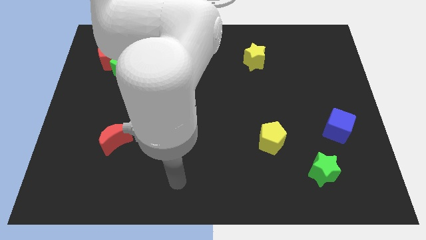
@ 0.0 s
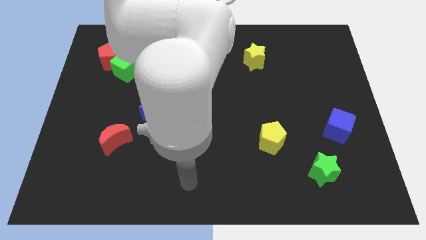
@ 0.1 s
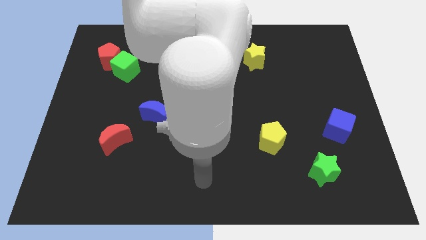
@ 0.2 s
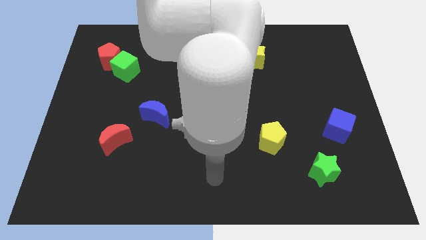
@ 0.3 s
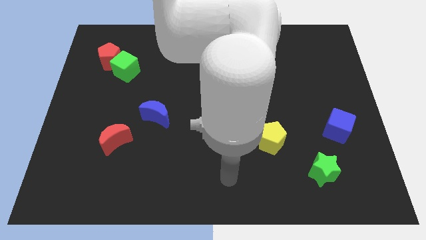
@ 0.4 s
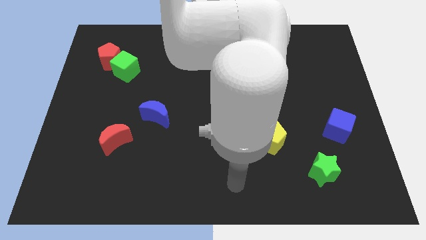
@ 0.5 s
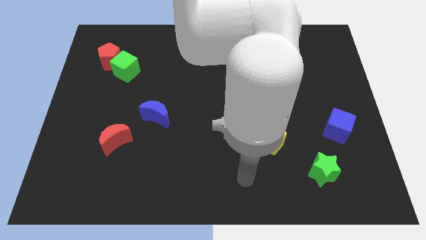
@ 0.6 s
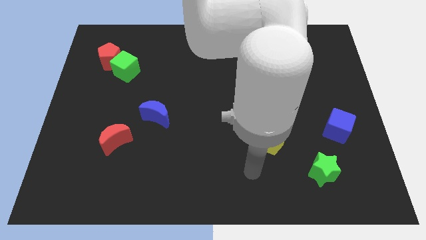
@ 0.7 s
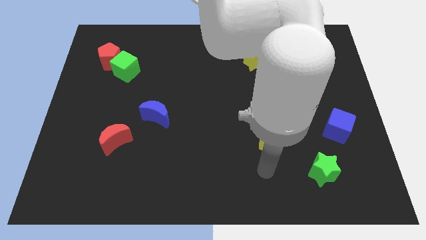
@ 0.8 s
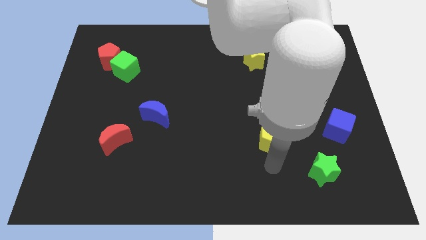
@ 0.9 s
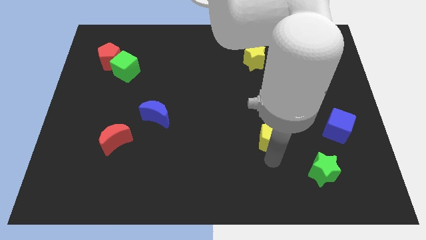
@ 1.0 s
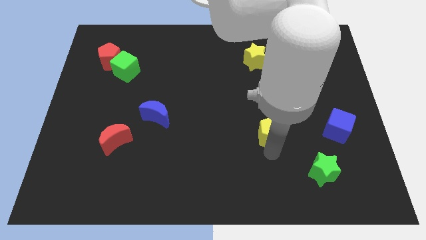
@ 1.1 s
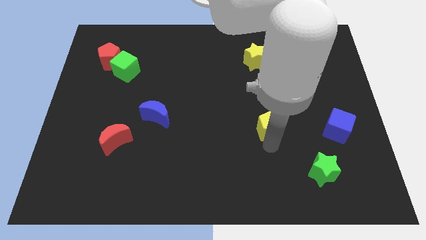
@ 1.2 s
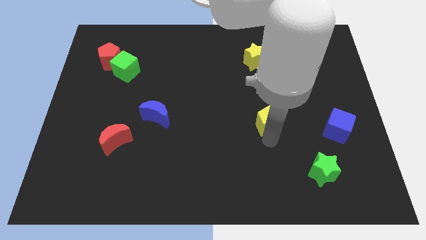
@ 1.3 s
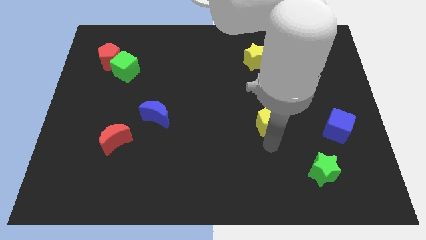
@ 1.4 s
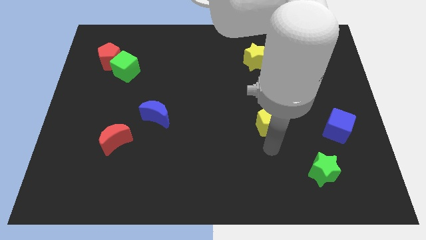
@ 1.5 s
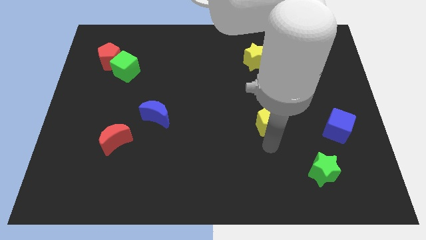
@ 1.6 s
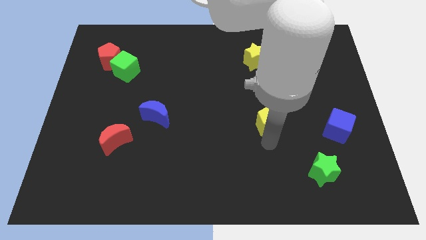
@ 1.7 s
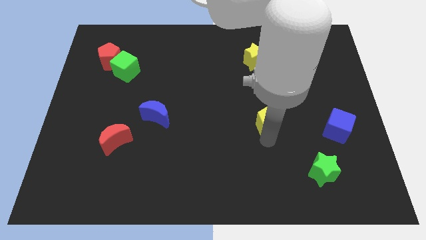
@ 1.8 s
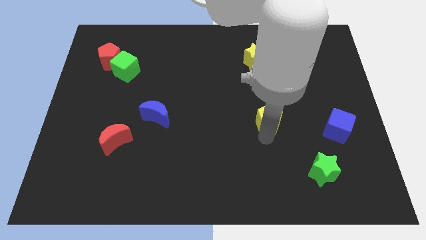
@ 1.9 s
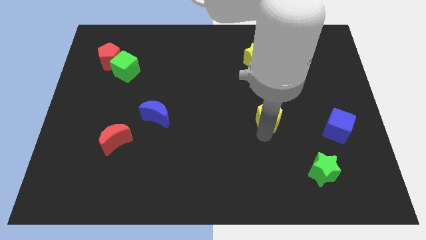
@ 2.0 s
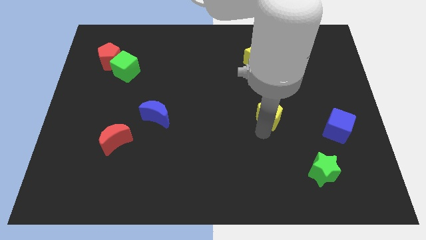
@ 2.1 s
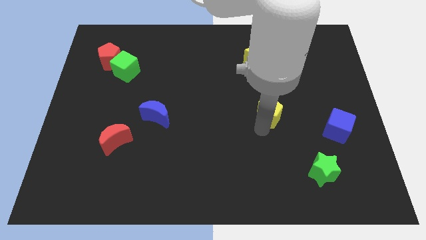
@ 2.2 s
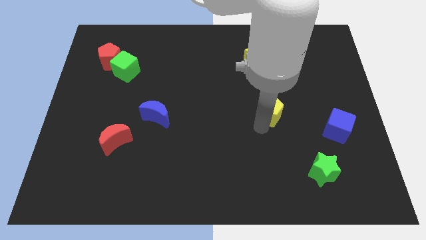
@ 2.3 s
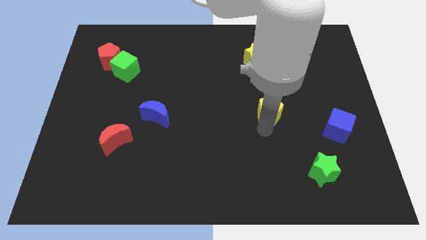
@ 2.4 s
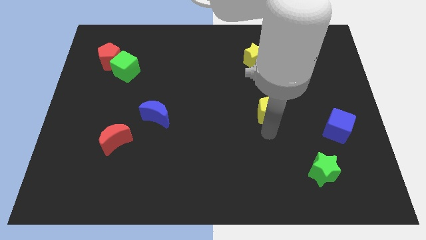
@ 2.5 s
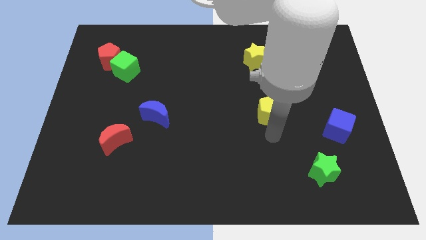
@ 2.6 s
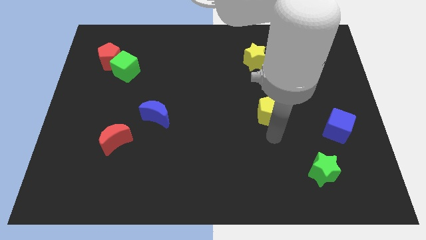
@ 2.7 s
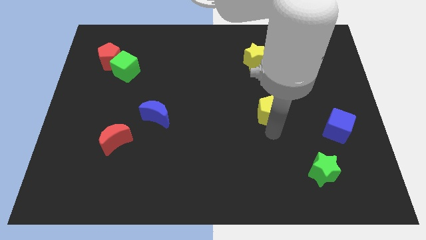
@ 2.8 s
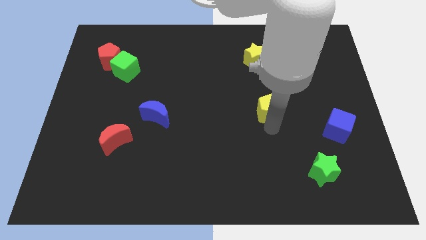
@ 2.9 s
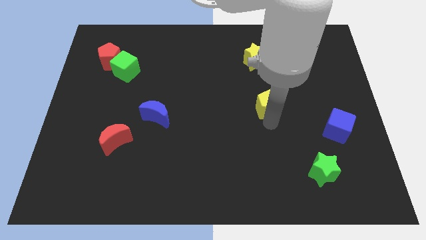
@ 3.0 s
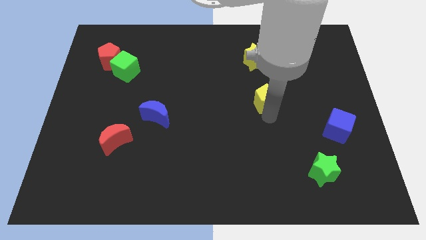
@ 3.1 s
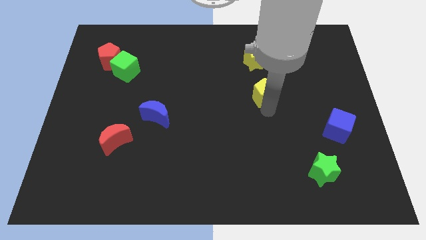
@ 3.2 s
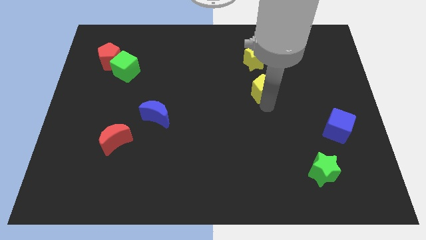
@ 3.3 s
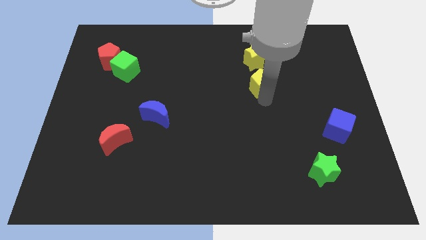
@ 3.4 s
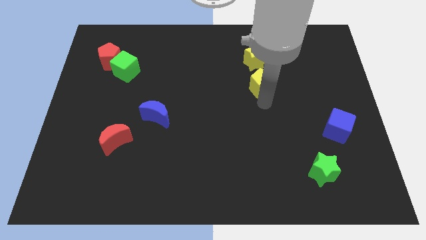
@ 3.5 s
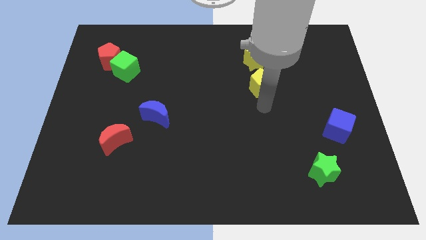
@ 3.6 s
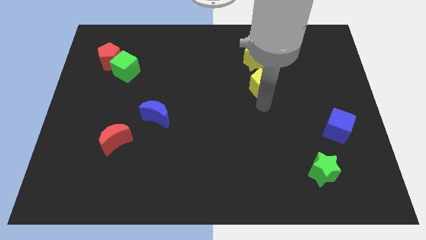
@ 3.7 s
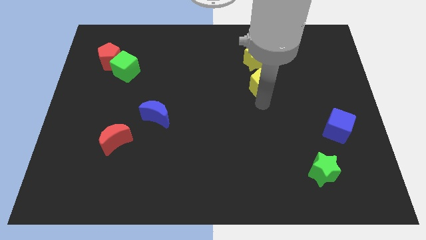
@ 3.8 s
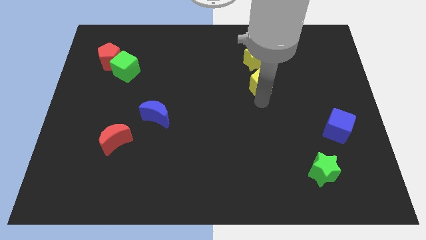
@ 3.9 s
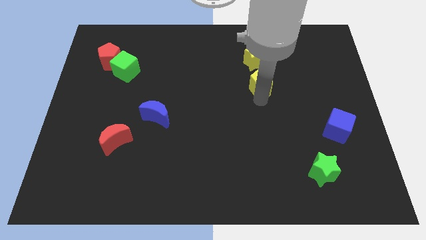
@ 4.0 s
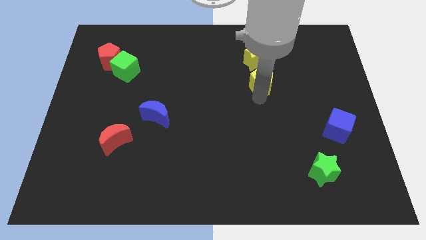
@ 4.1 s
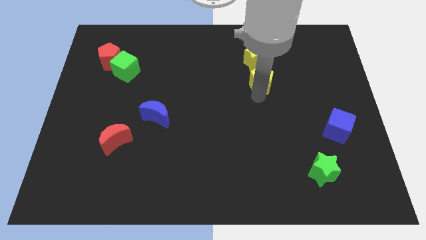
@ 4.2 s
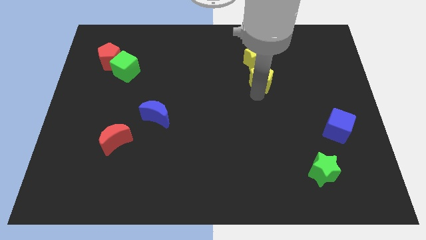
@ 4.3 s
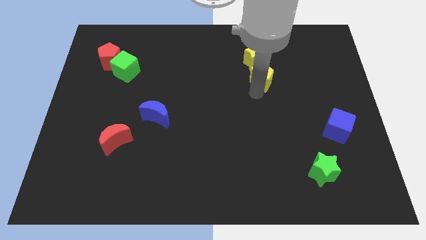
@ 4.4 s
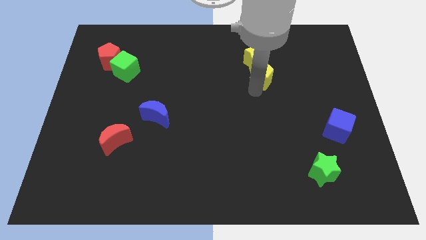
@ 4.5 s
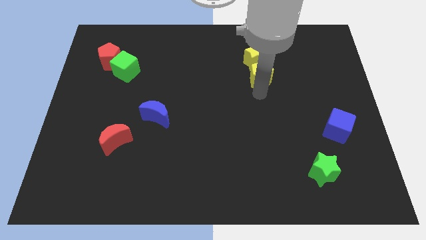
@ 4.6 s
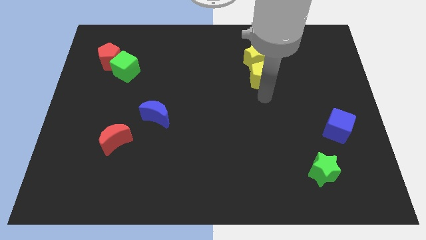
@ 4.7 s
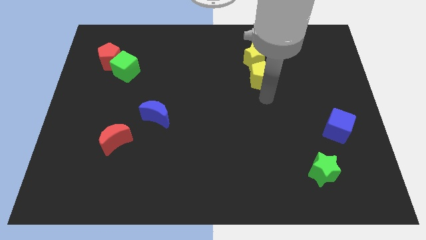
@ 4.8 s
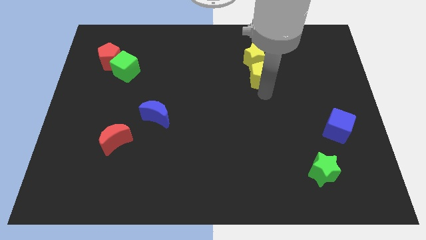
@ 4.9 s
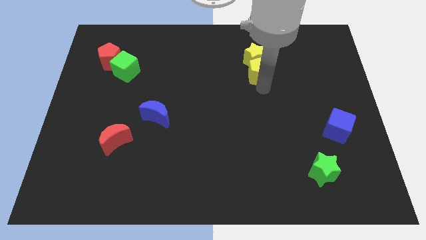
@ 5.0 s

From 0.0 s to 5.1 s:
slide the yellow pentagon towards the yellow star

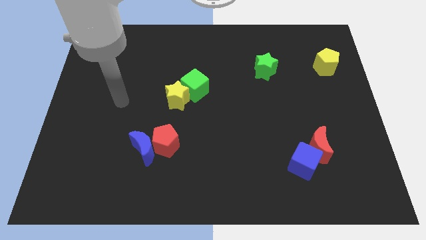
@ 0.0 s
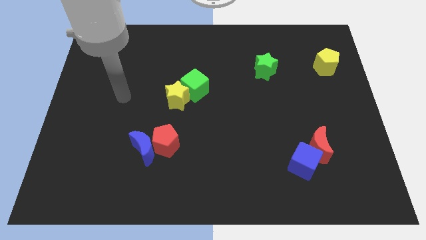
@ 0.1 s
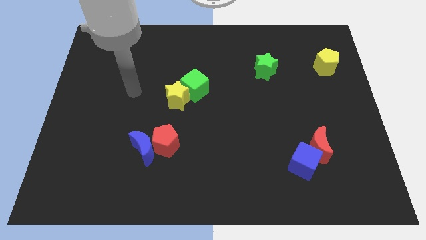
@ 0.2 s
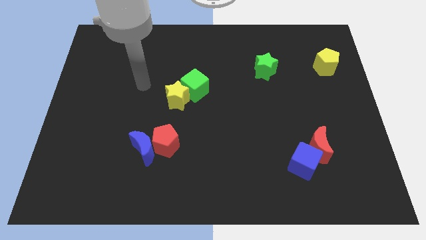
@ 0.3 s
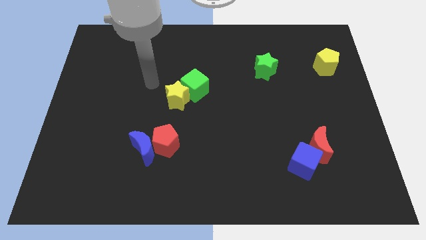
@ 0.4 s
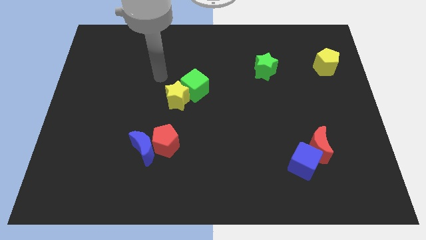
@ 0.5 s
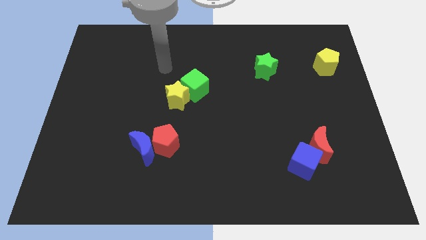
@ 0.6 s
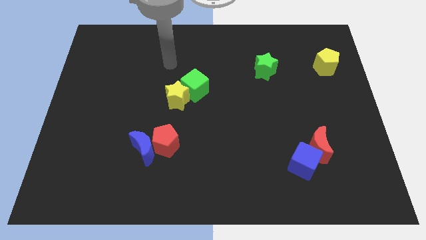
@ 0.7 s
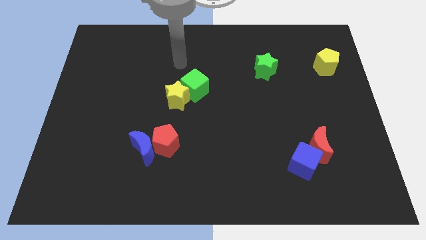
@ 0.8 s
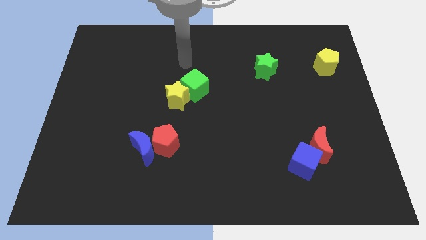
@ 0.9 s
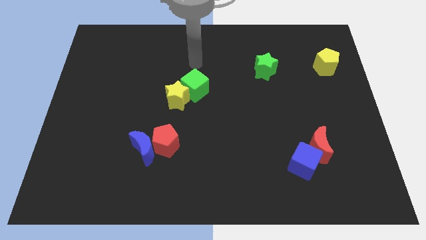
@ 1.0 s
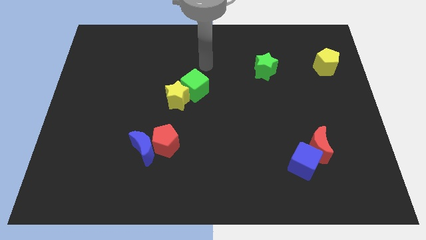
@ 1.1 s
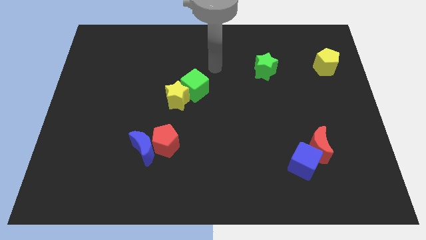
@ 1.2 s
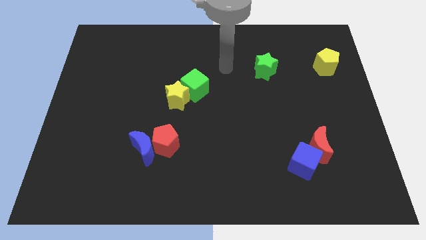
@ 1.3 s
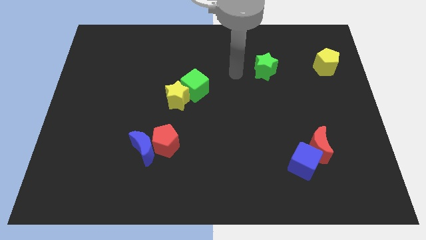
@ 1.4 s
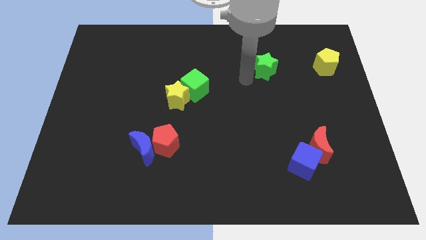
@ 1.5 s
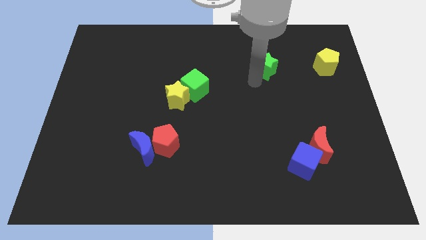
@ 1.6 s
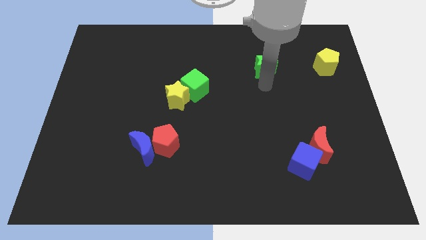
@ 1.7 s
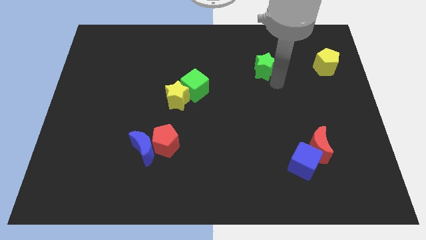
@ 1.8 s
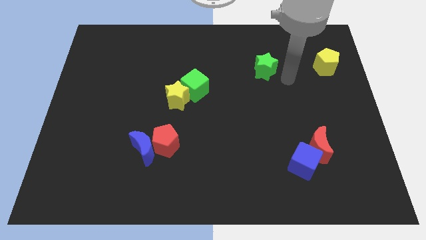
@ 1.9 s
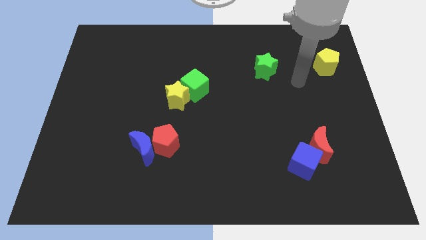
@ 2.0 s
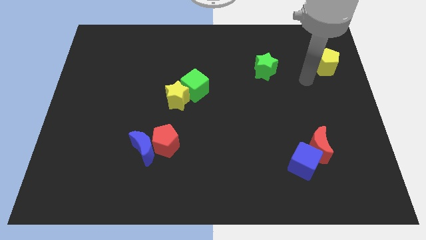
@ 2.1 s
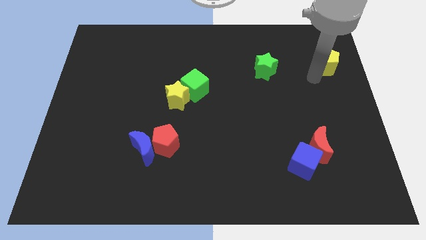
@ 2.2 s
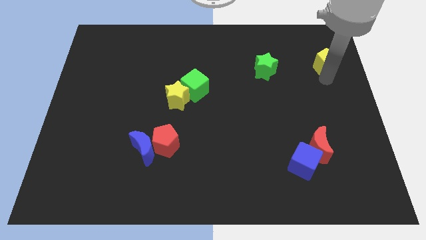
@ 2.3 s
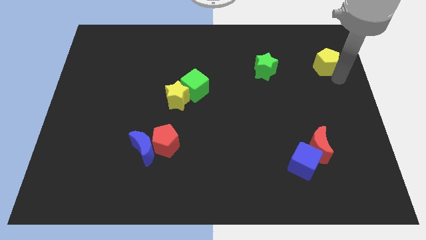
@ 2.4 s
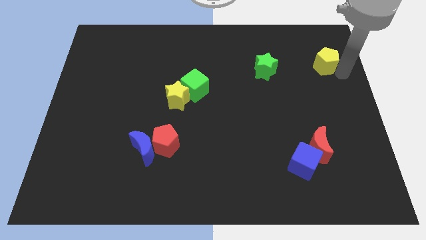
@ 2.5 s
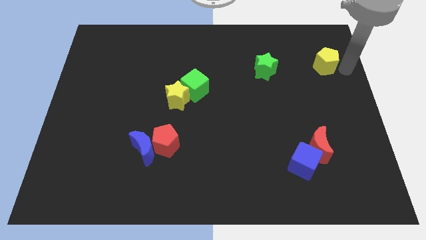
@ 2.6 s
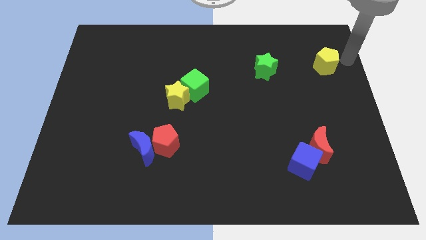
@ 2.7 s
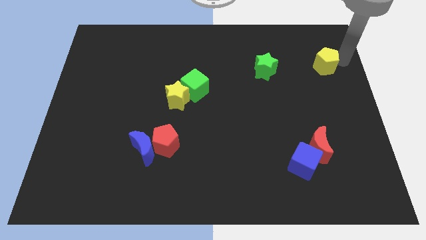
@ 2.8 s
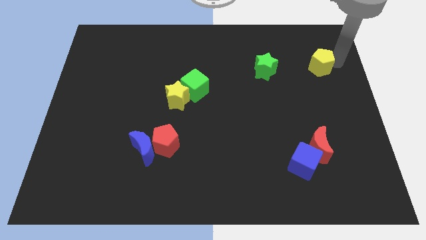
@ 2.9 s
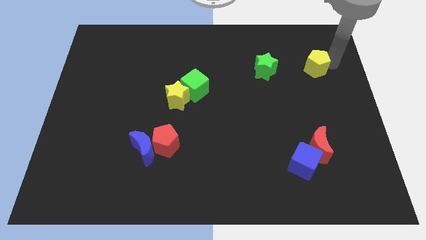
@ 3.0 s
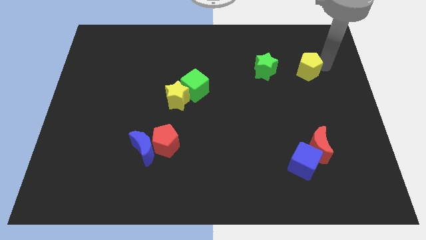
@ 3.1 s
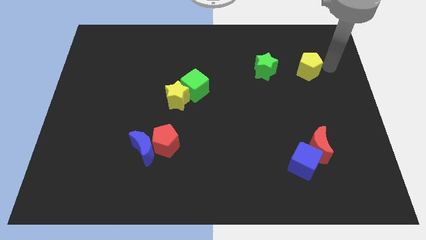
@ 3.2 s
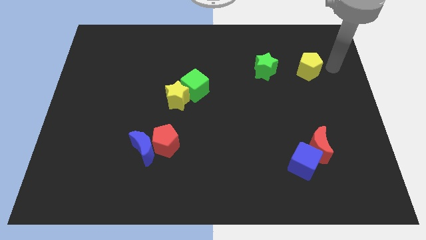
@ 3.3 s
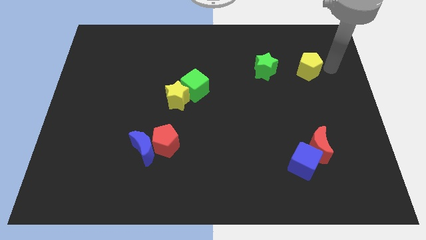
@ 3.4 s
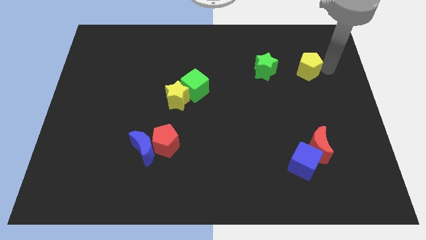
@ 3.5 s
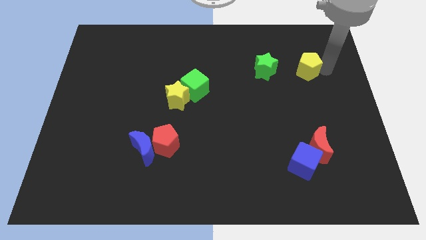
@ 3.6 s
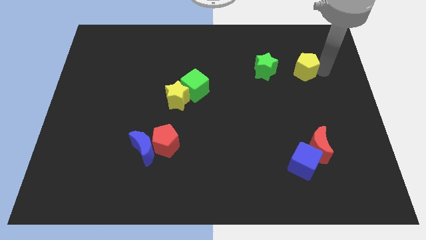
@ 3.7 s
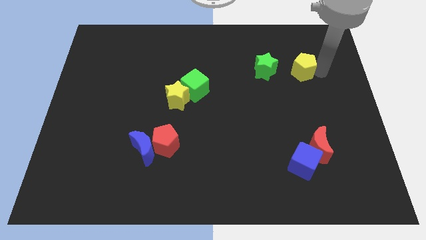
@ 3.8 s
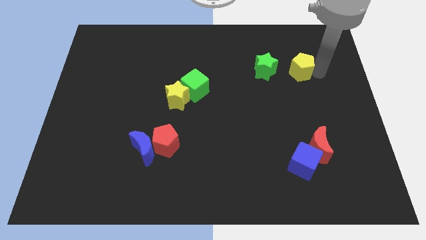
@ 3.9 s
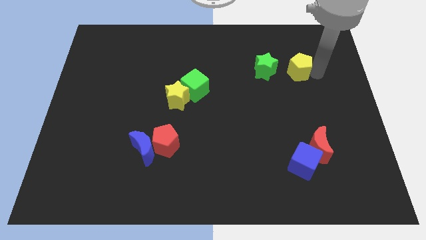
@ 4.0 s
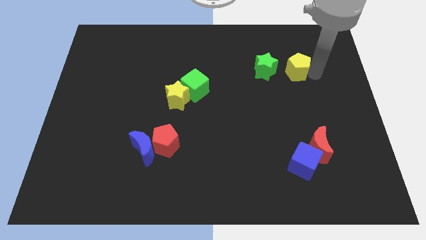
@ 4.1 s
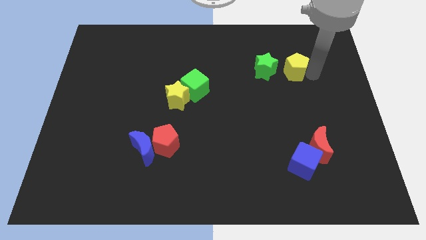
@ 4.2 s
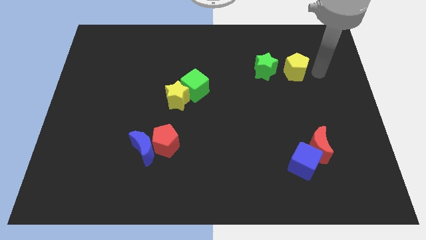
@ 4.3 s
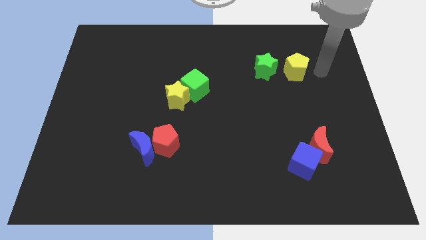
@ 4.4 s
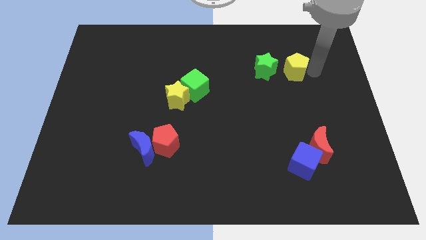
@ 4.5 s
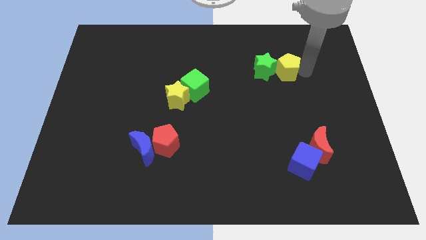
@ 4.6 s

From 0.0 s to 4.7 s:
move the yellow pentagon to the green star
